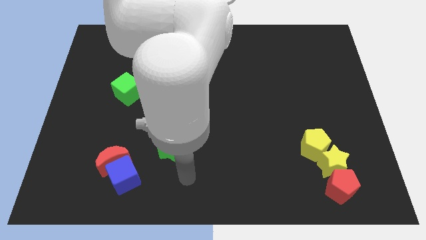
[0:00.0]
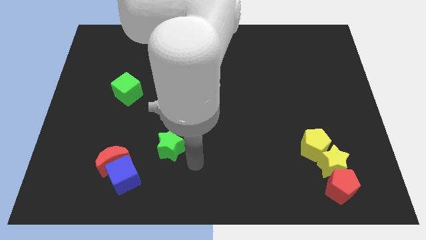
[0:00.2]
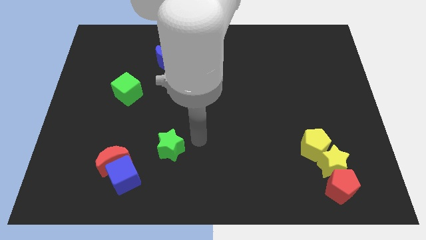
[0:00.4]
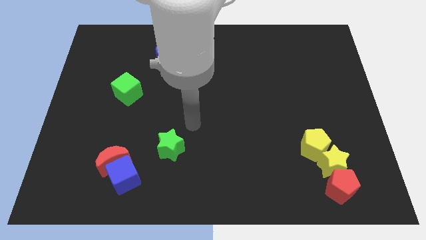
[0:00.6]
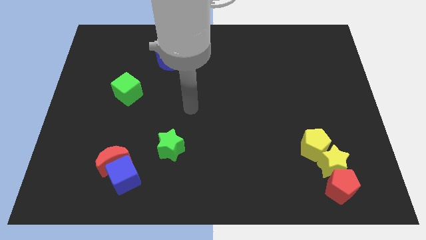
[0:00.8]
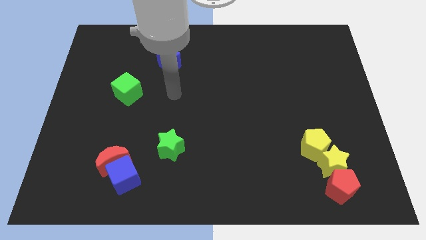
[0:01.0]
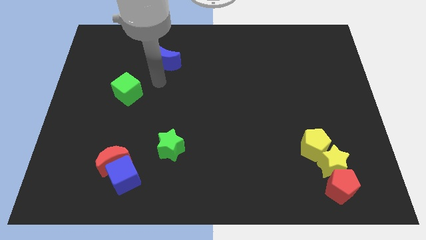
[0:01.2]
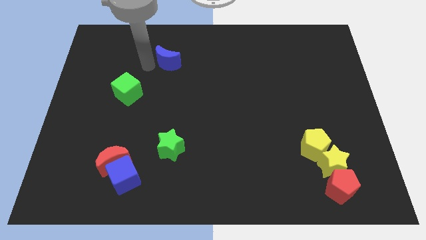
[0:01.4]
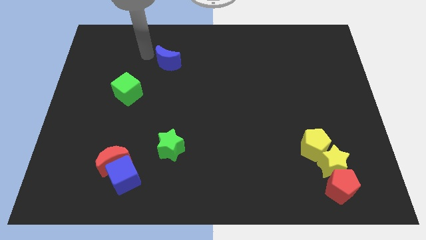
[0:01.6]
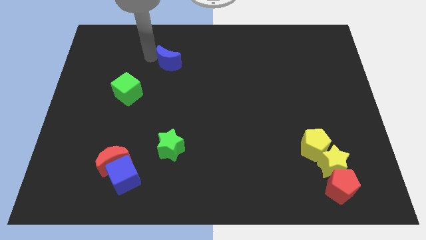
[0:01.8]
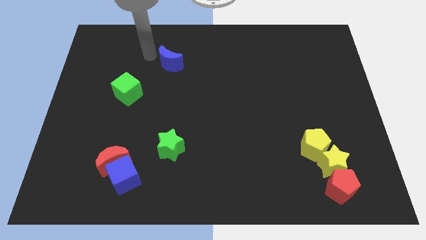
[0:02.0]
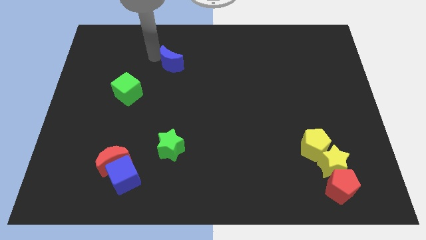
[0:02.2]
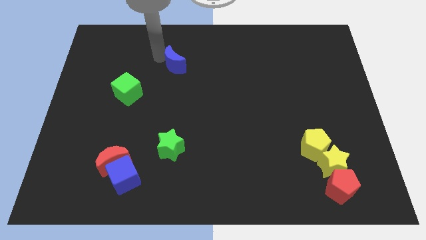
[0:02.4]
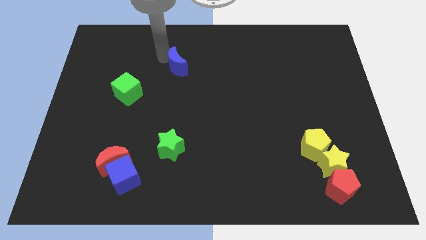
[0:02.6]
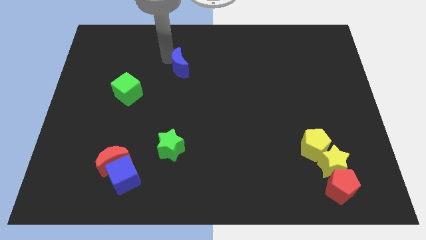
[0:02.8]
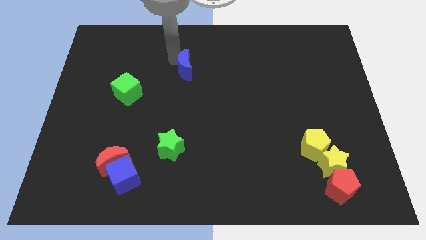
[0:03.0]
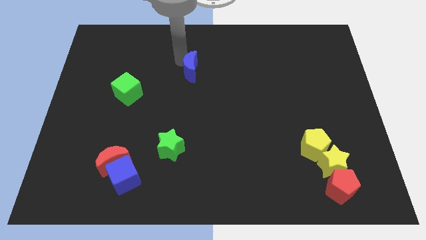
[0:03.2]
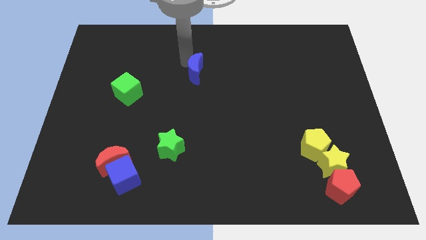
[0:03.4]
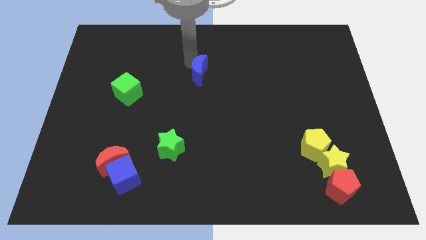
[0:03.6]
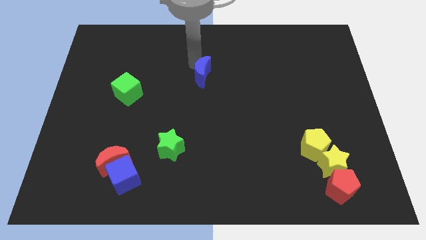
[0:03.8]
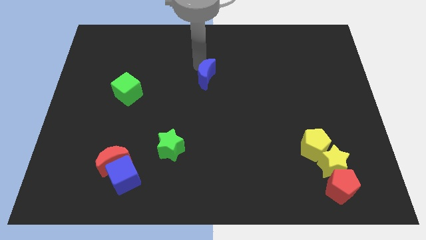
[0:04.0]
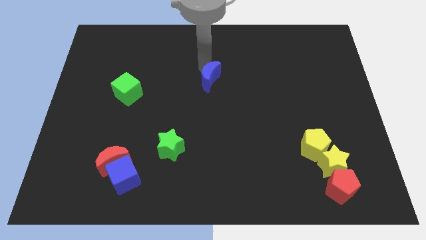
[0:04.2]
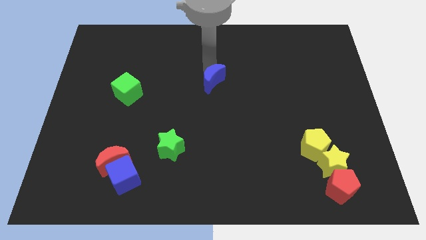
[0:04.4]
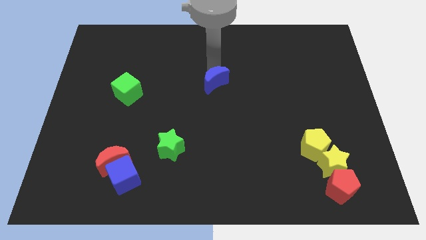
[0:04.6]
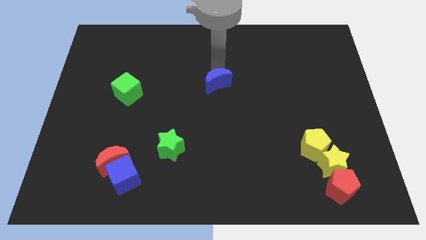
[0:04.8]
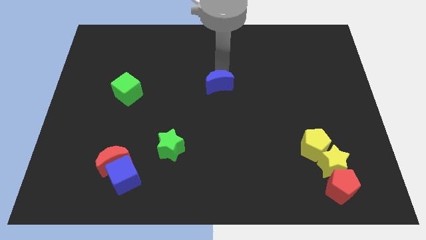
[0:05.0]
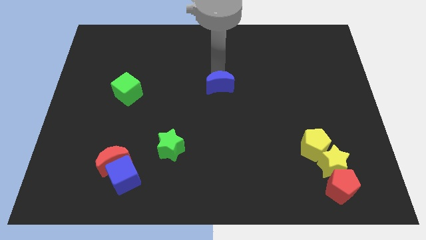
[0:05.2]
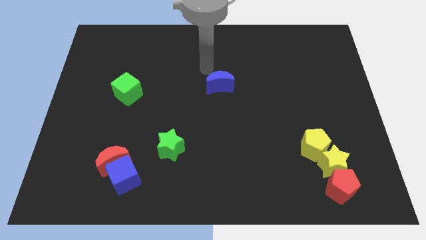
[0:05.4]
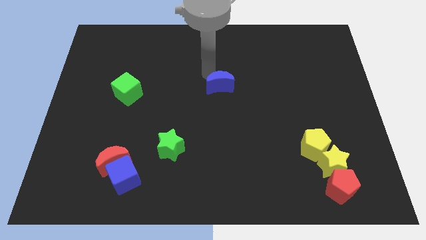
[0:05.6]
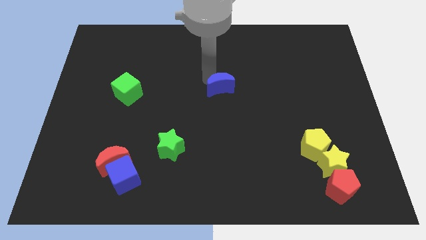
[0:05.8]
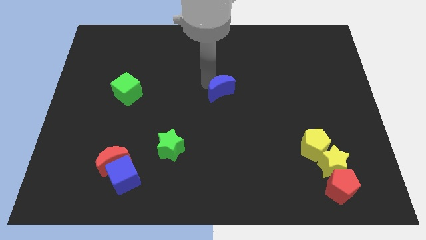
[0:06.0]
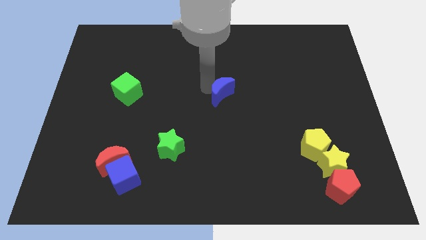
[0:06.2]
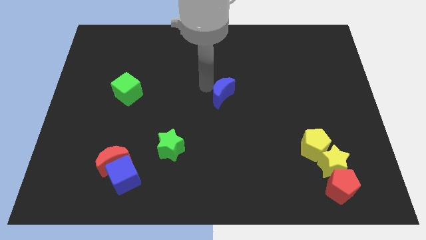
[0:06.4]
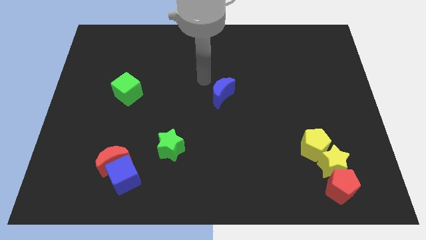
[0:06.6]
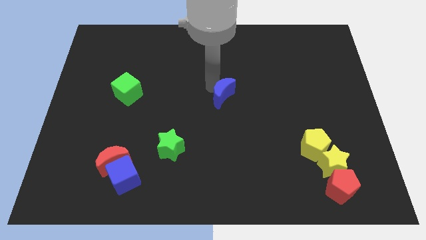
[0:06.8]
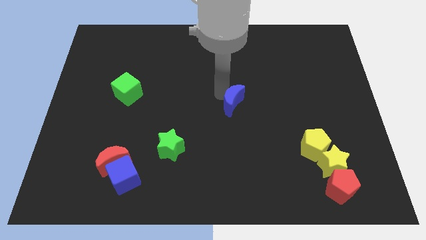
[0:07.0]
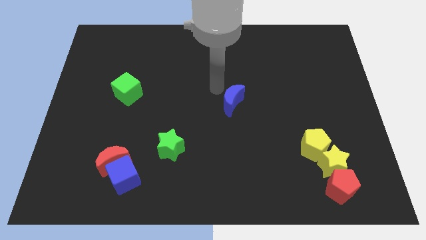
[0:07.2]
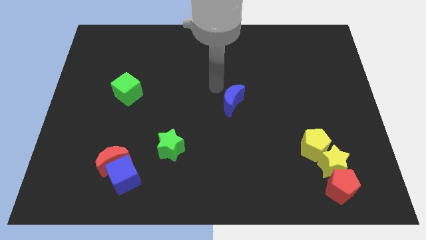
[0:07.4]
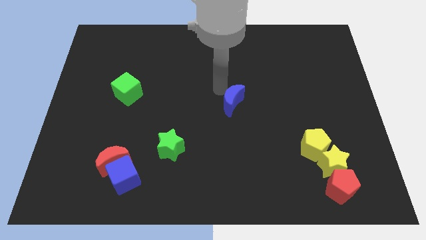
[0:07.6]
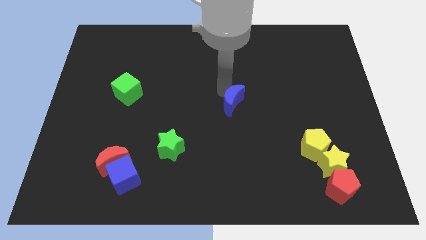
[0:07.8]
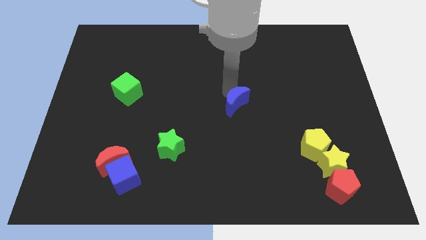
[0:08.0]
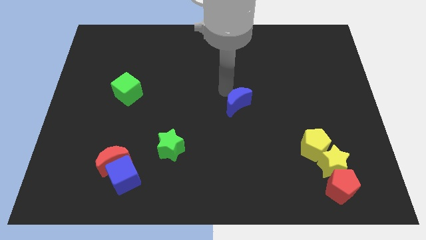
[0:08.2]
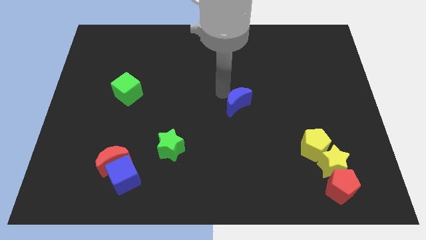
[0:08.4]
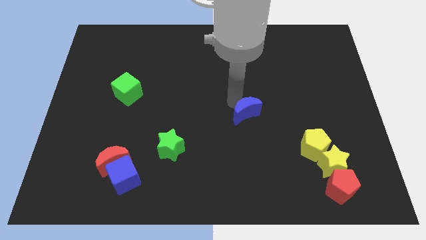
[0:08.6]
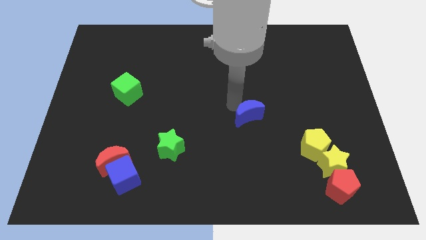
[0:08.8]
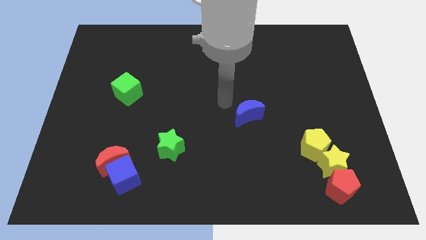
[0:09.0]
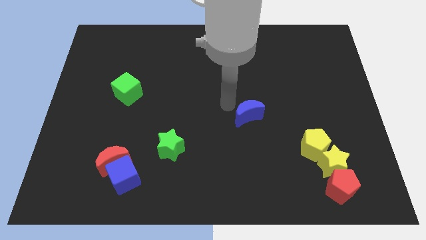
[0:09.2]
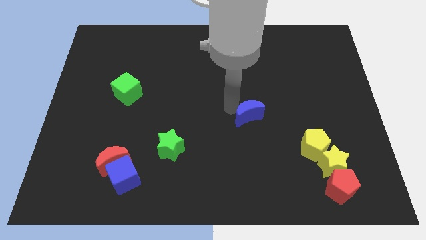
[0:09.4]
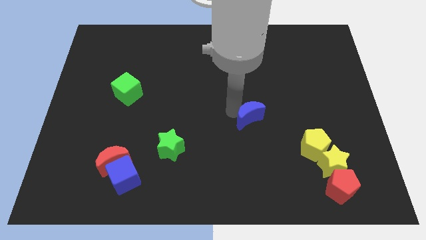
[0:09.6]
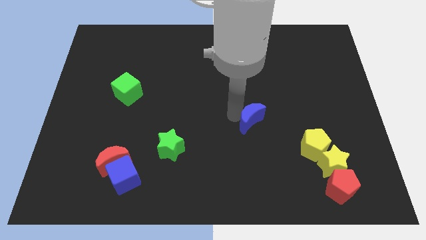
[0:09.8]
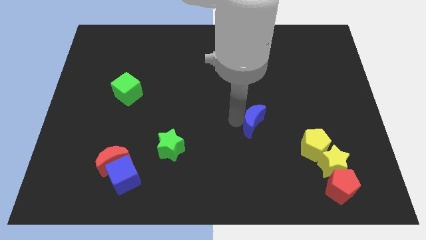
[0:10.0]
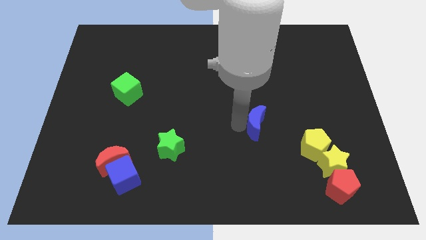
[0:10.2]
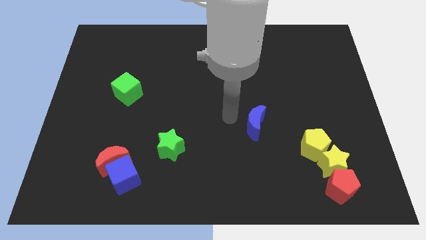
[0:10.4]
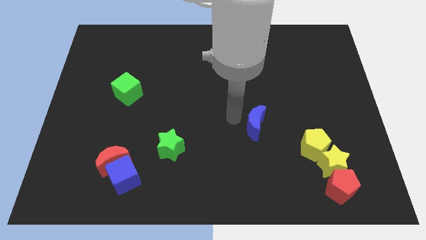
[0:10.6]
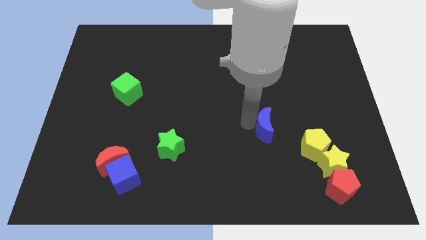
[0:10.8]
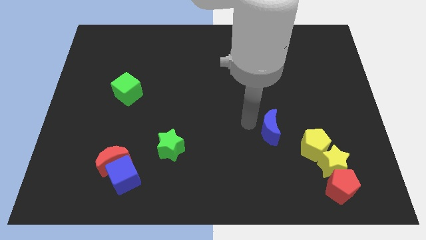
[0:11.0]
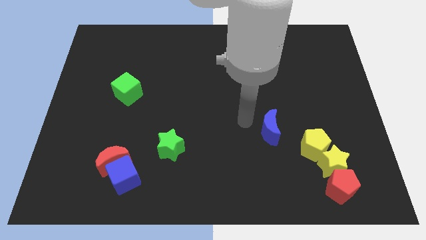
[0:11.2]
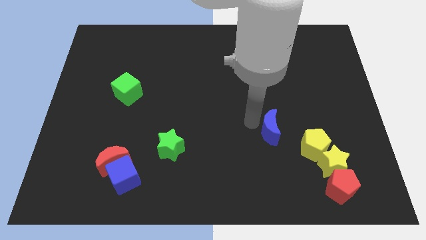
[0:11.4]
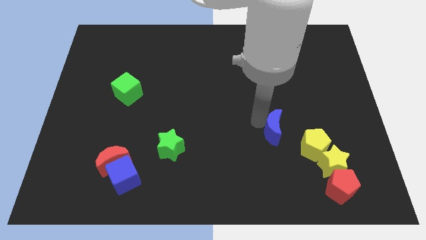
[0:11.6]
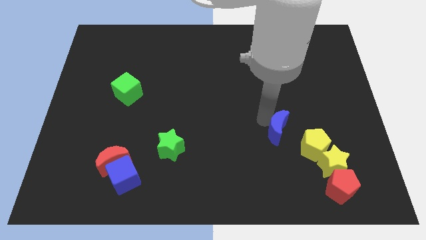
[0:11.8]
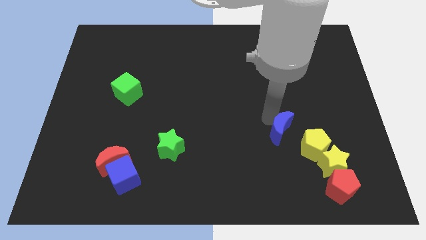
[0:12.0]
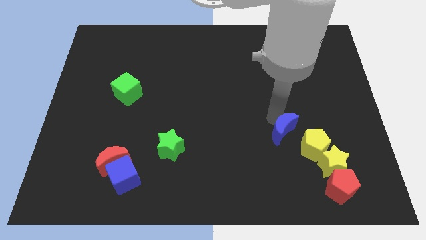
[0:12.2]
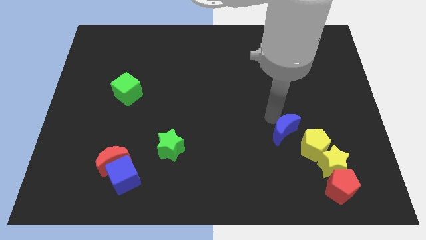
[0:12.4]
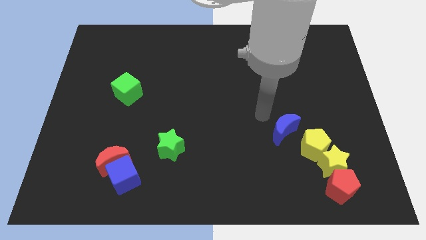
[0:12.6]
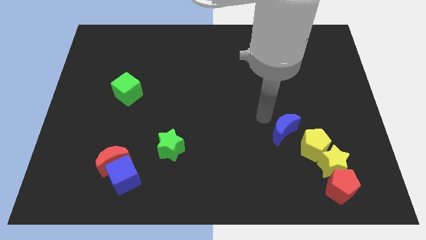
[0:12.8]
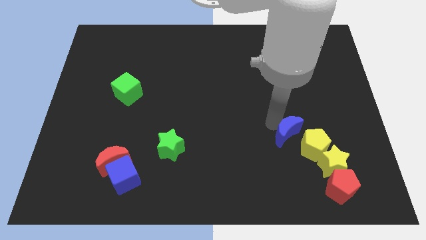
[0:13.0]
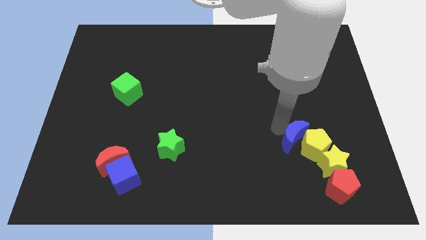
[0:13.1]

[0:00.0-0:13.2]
slide the blue moon next to the yellow pentagon
